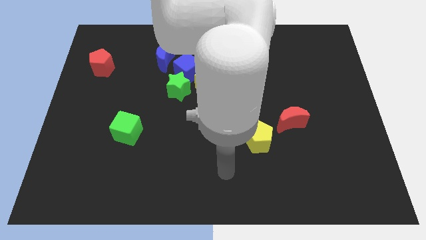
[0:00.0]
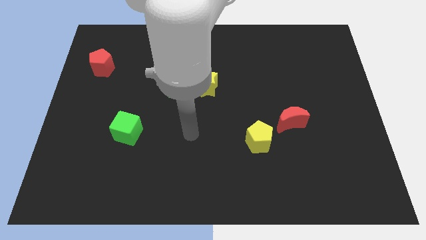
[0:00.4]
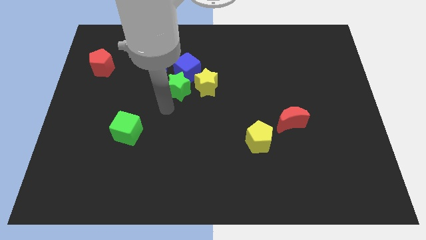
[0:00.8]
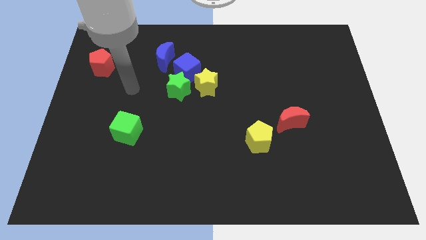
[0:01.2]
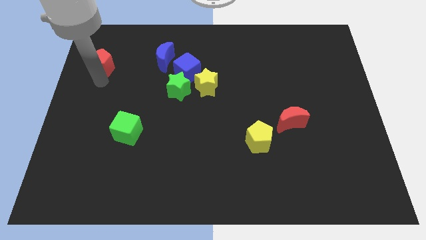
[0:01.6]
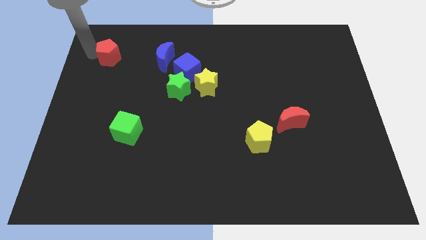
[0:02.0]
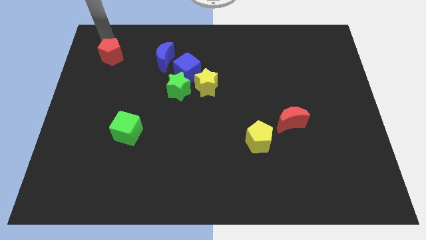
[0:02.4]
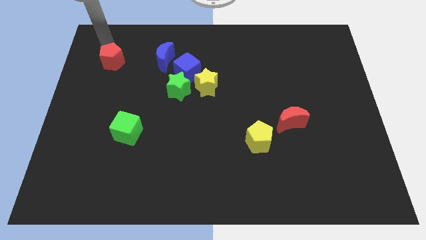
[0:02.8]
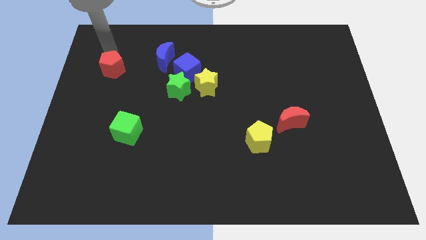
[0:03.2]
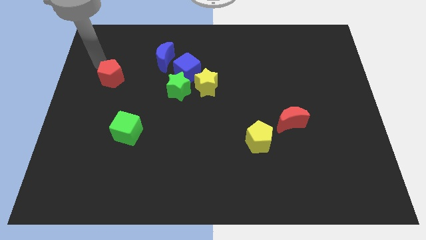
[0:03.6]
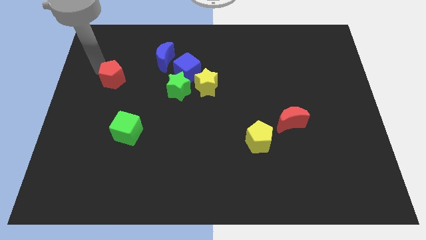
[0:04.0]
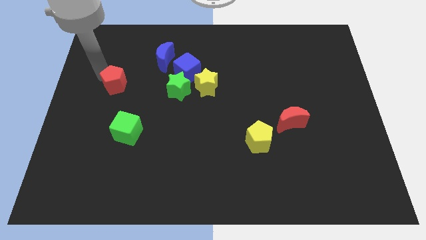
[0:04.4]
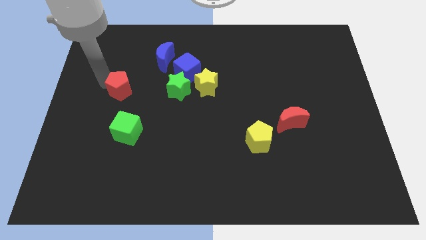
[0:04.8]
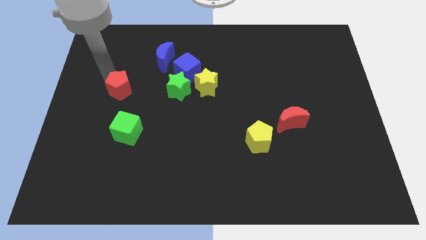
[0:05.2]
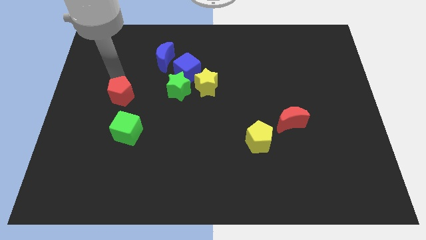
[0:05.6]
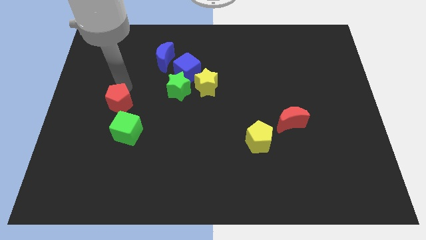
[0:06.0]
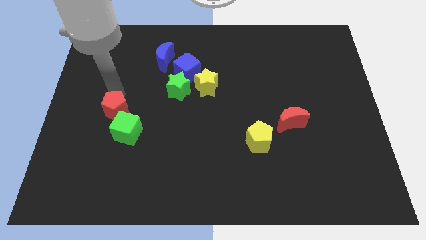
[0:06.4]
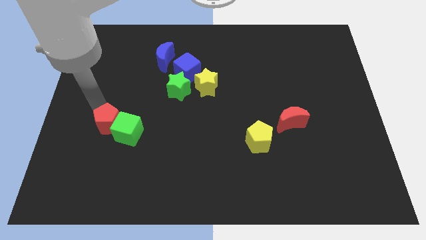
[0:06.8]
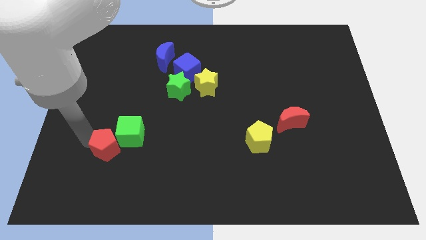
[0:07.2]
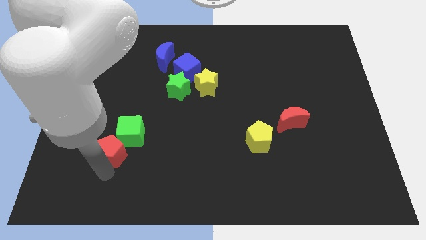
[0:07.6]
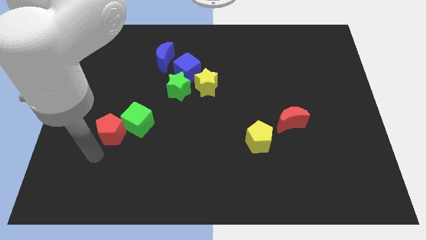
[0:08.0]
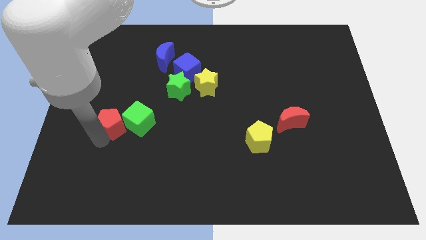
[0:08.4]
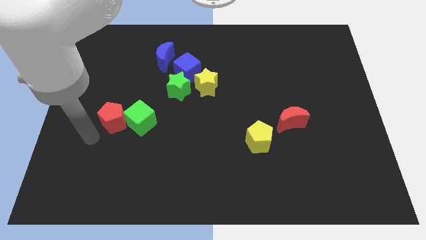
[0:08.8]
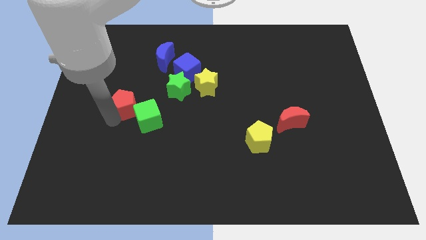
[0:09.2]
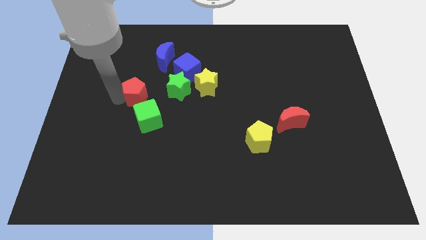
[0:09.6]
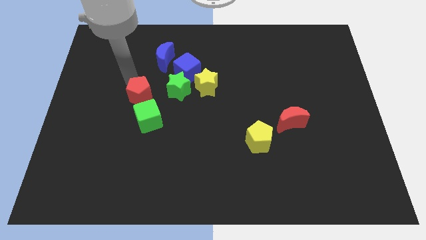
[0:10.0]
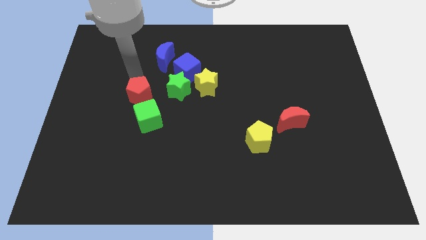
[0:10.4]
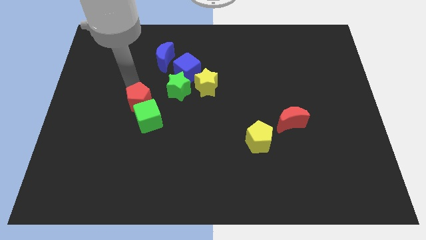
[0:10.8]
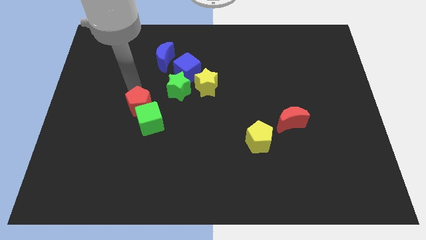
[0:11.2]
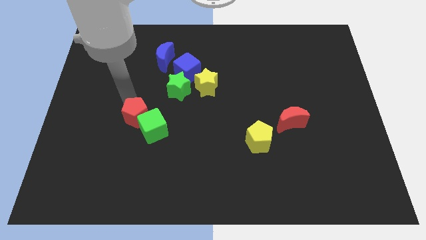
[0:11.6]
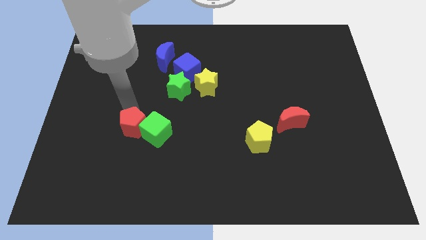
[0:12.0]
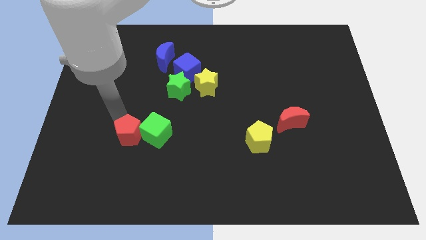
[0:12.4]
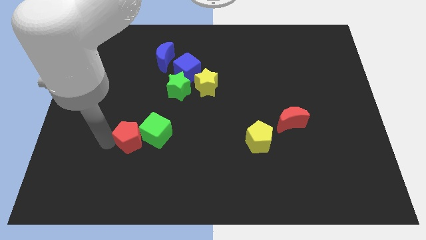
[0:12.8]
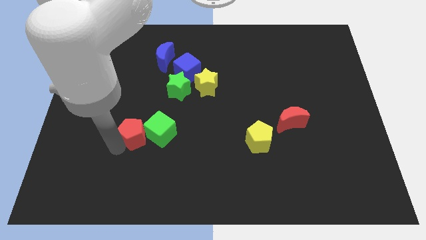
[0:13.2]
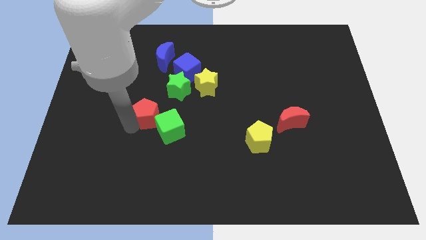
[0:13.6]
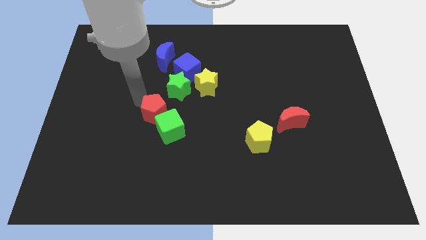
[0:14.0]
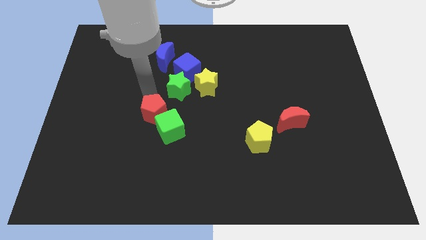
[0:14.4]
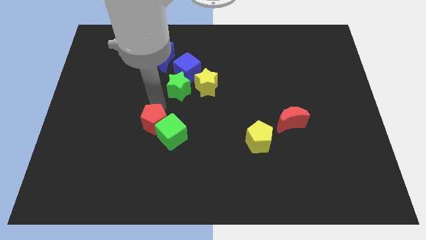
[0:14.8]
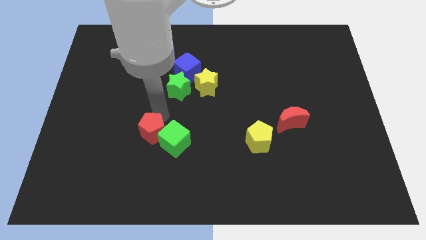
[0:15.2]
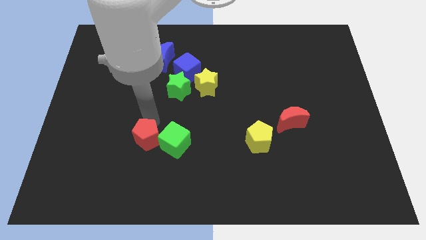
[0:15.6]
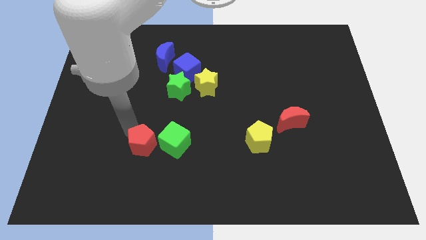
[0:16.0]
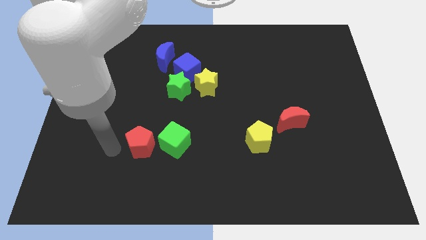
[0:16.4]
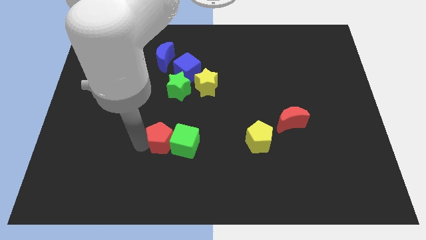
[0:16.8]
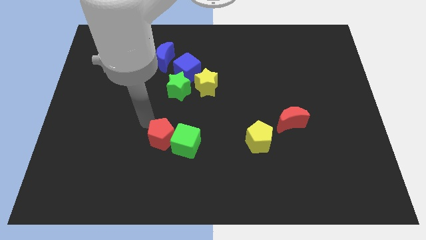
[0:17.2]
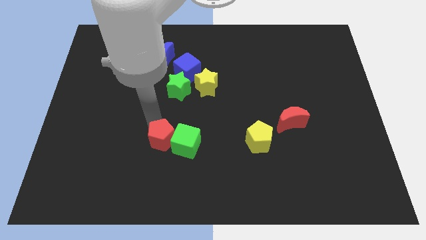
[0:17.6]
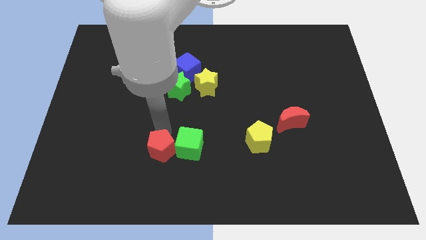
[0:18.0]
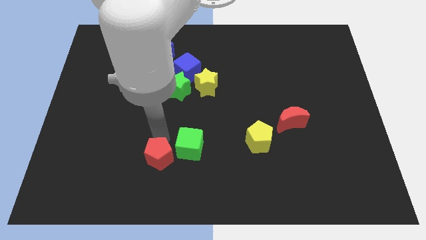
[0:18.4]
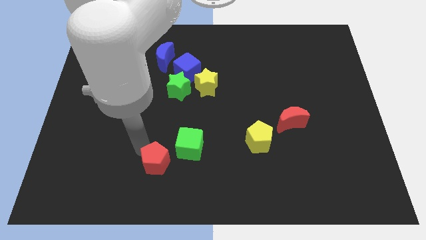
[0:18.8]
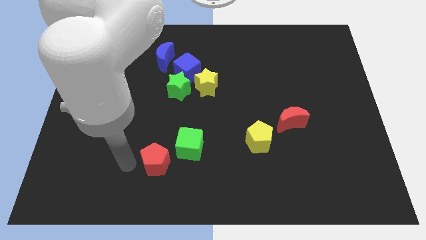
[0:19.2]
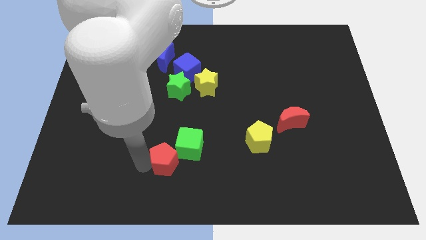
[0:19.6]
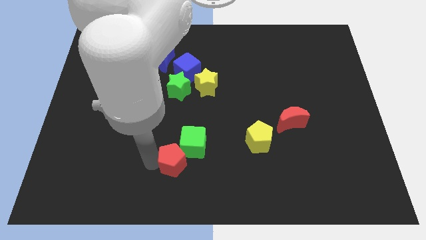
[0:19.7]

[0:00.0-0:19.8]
move the red pentagon to the bottom side

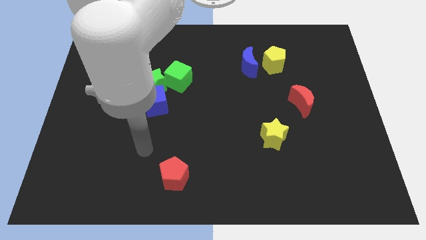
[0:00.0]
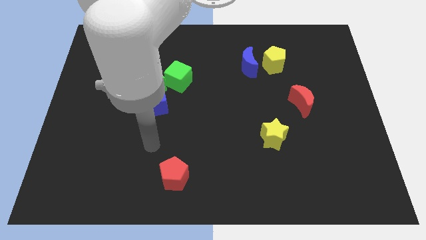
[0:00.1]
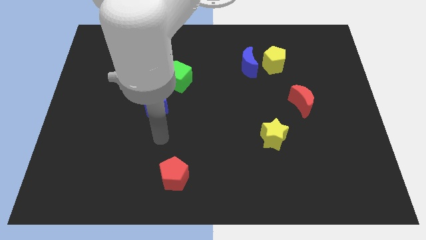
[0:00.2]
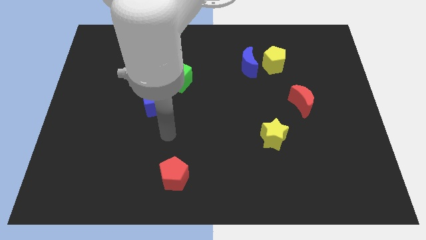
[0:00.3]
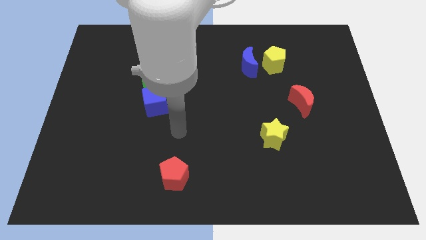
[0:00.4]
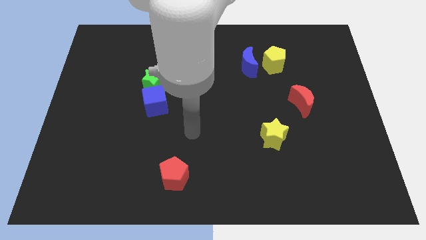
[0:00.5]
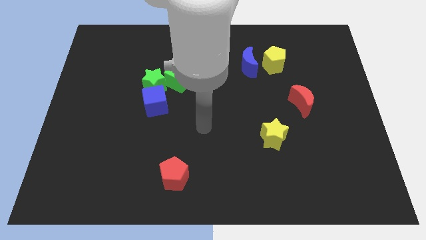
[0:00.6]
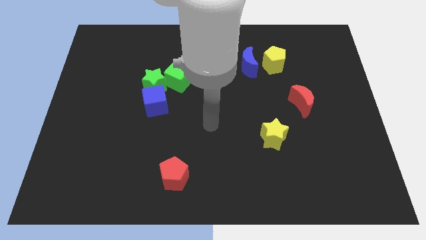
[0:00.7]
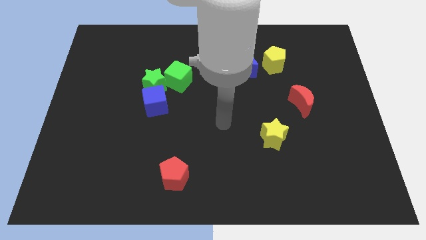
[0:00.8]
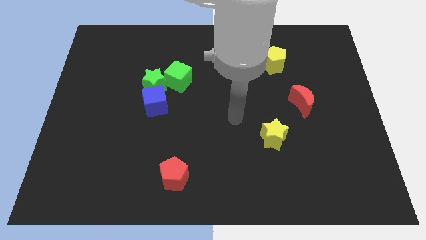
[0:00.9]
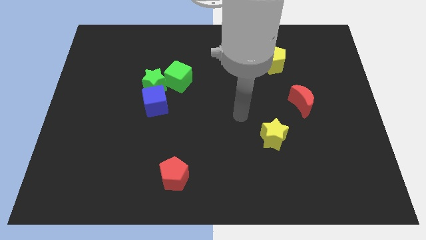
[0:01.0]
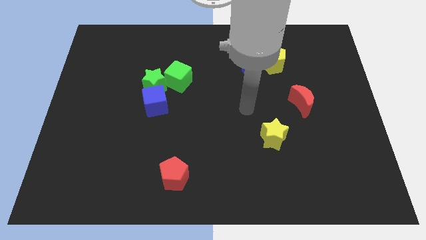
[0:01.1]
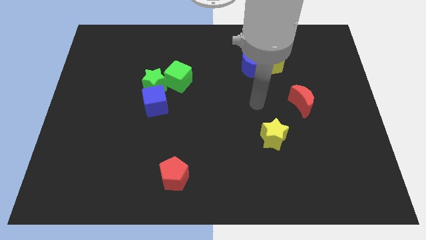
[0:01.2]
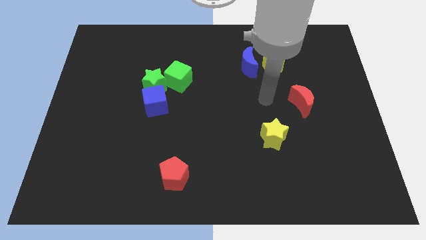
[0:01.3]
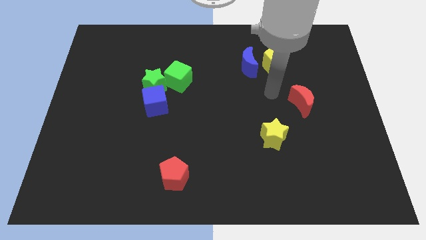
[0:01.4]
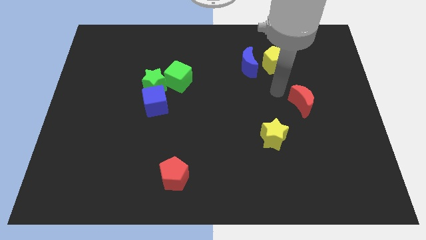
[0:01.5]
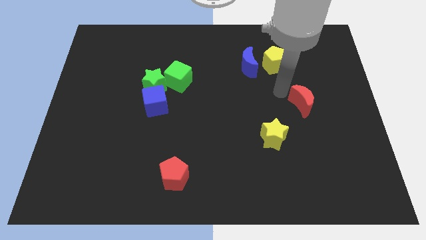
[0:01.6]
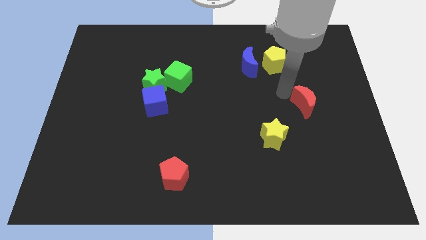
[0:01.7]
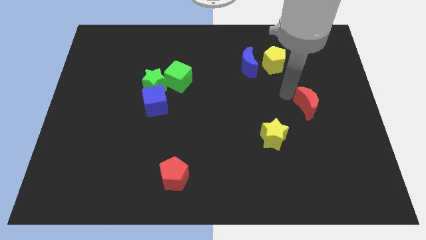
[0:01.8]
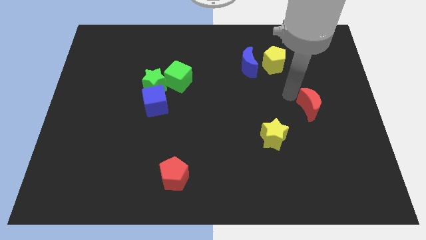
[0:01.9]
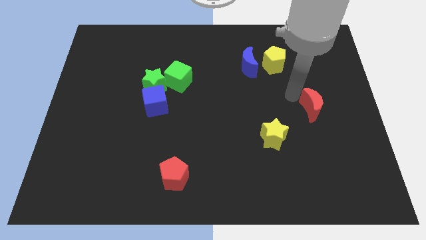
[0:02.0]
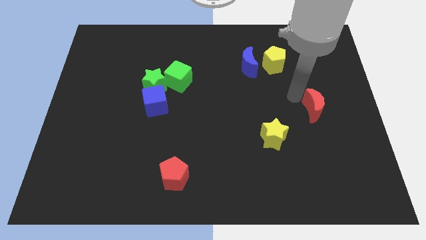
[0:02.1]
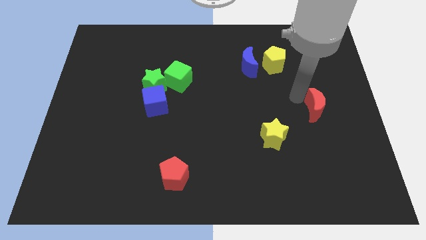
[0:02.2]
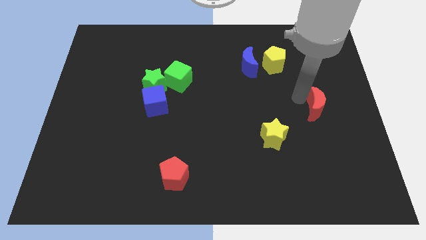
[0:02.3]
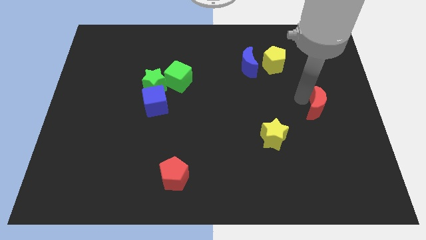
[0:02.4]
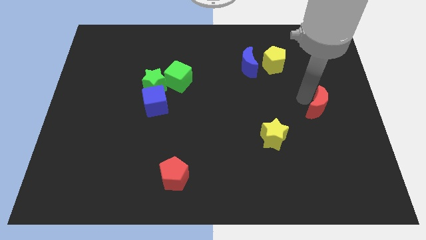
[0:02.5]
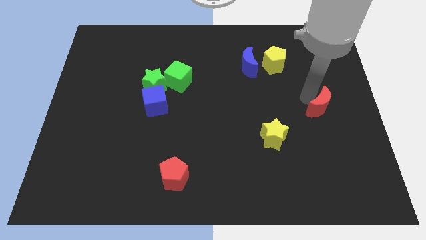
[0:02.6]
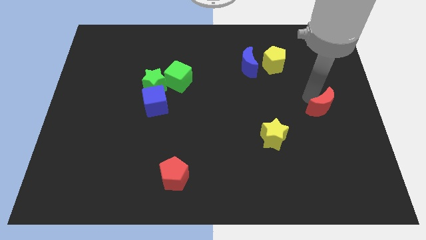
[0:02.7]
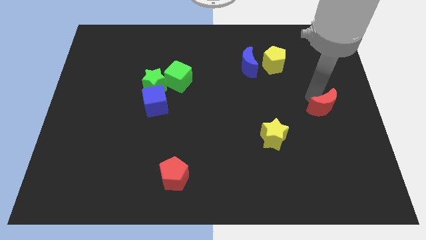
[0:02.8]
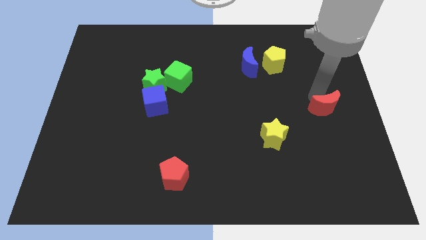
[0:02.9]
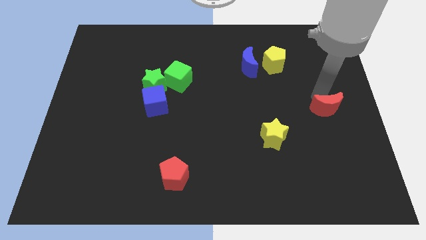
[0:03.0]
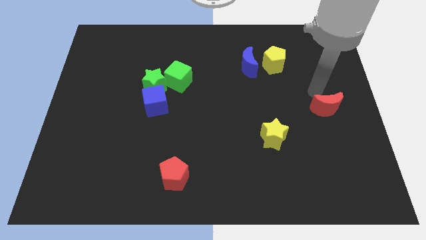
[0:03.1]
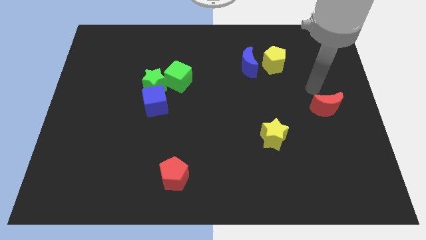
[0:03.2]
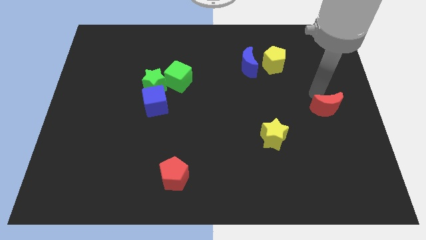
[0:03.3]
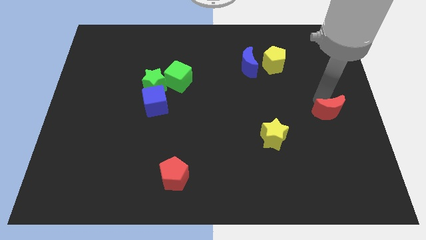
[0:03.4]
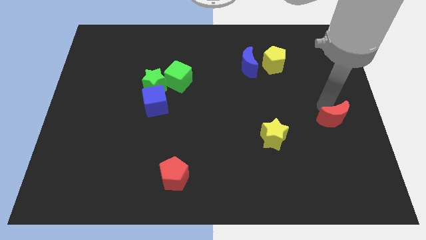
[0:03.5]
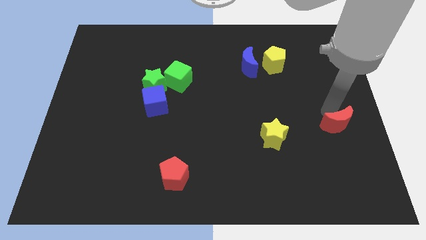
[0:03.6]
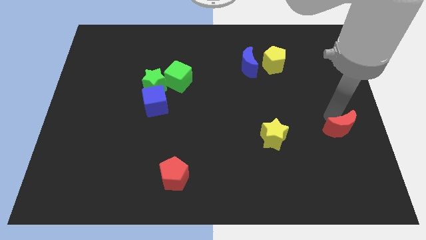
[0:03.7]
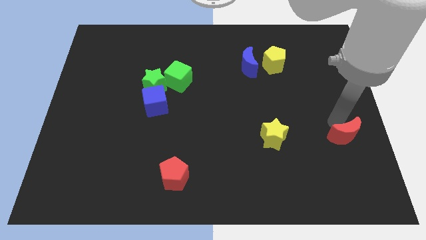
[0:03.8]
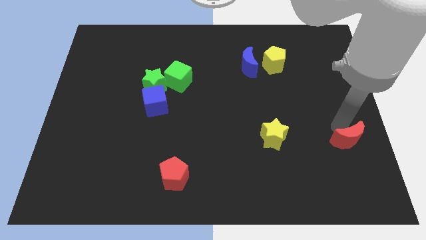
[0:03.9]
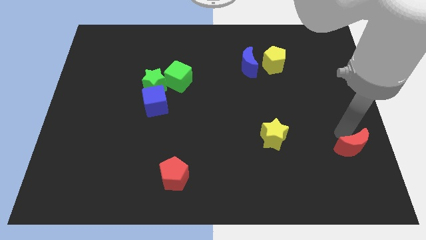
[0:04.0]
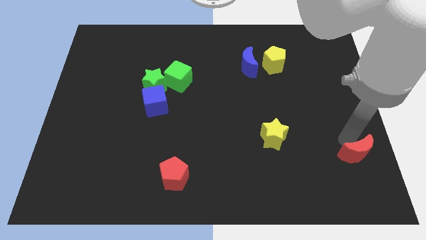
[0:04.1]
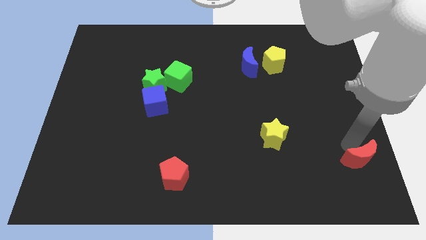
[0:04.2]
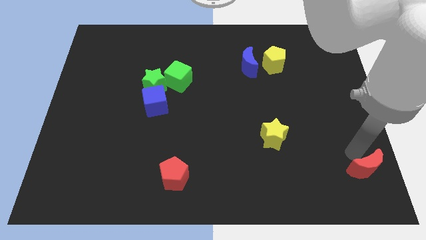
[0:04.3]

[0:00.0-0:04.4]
push the red moon to the bottom right corner
